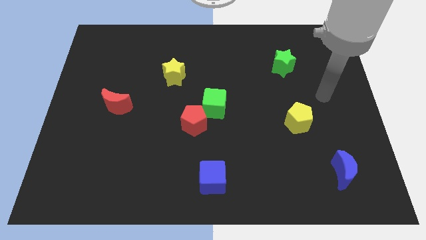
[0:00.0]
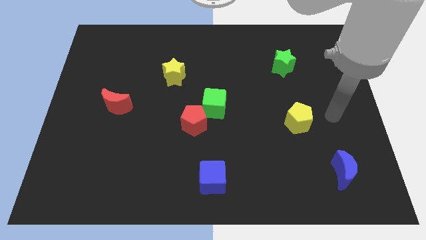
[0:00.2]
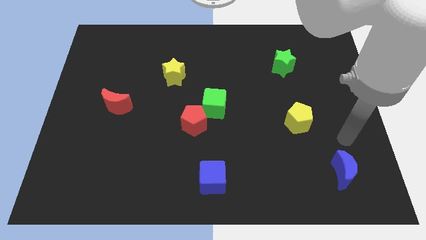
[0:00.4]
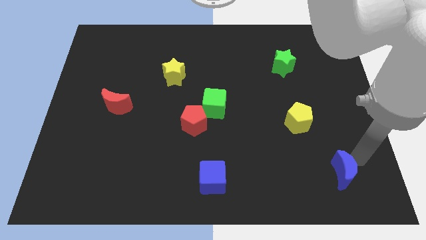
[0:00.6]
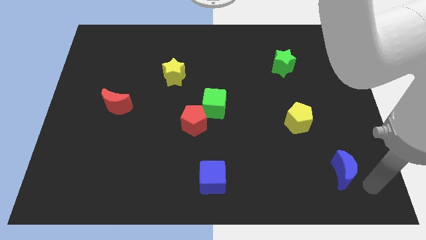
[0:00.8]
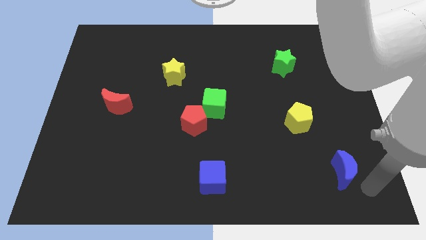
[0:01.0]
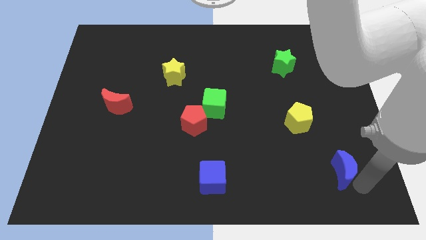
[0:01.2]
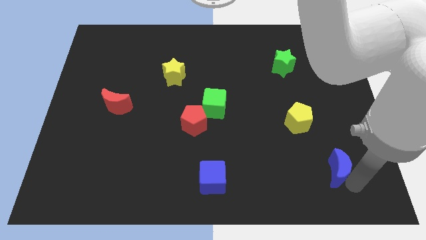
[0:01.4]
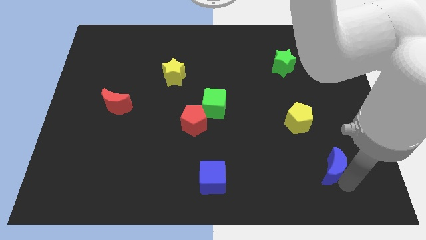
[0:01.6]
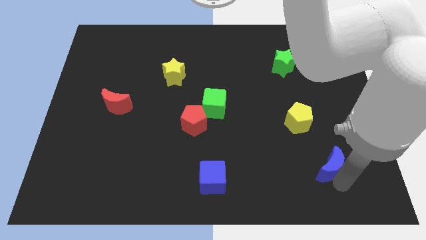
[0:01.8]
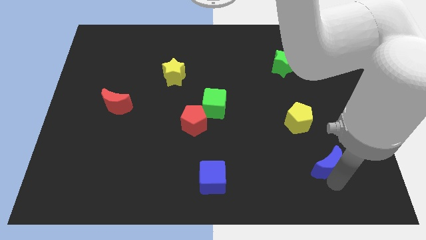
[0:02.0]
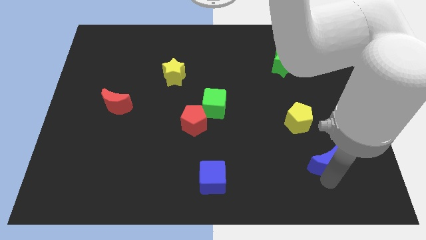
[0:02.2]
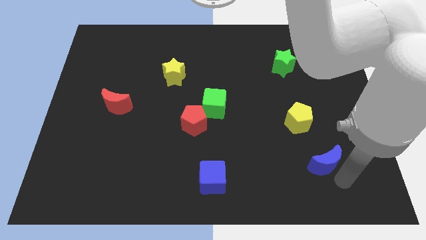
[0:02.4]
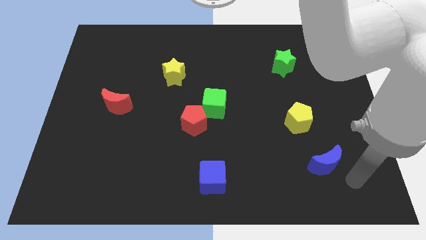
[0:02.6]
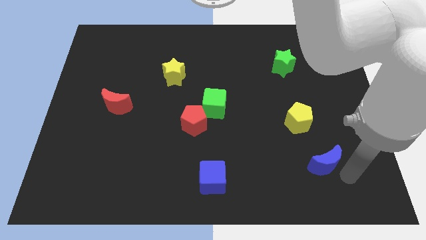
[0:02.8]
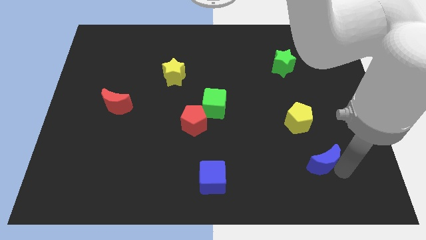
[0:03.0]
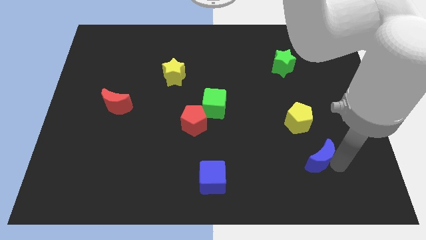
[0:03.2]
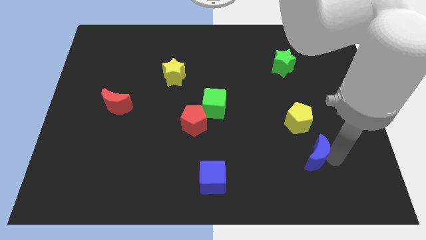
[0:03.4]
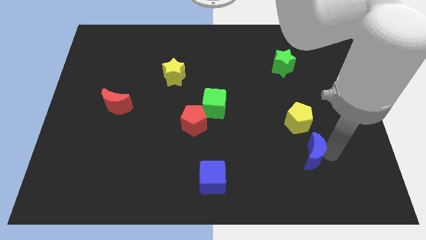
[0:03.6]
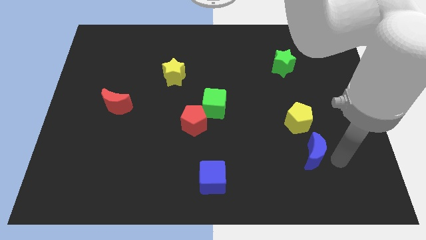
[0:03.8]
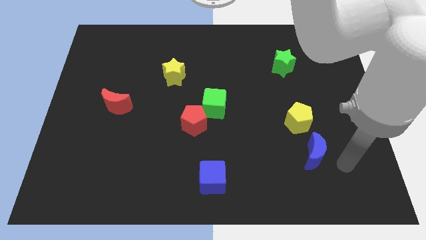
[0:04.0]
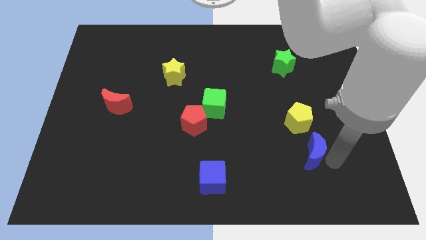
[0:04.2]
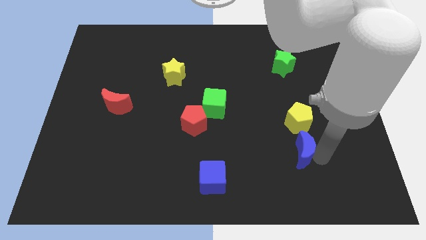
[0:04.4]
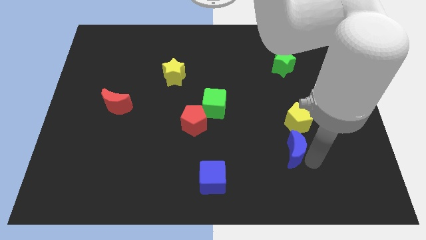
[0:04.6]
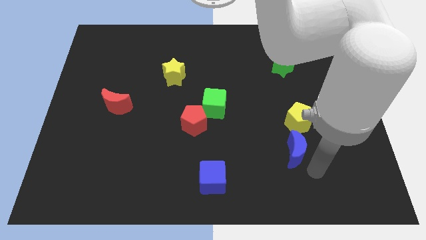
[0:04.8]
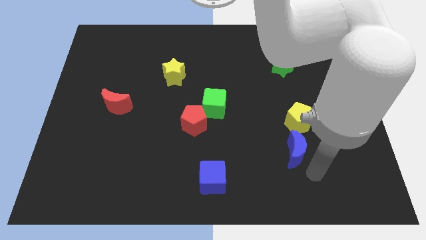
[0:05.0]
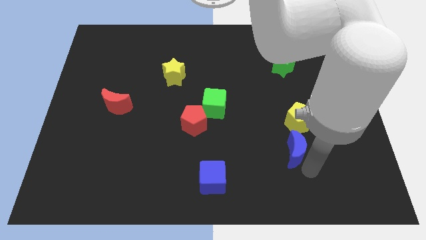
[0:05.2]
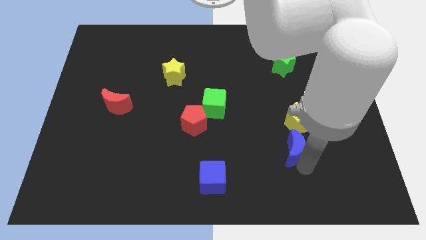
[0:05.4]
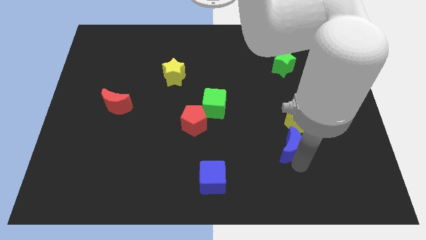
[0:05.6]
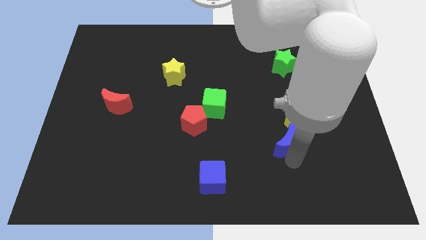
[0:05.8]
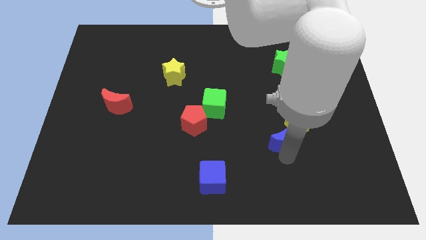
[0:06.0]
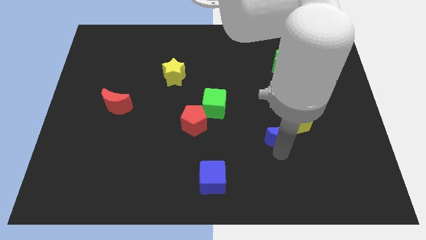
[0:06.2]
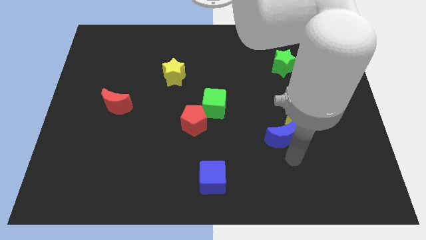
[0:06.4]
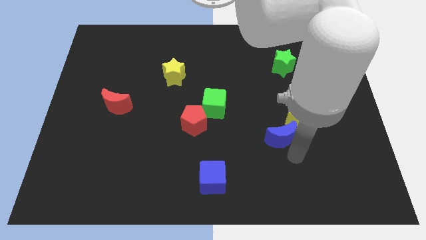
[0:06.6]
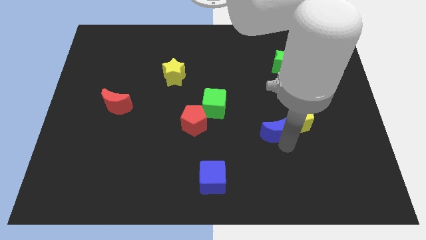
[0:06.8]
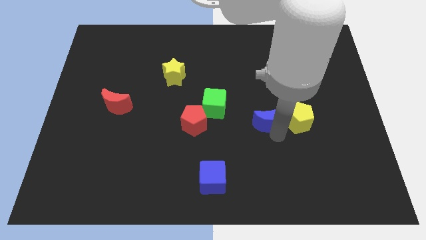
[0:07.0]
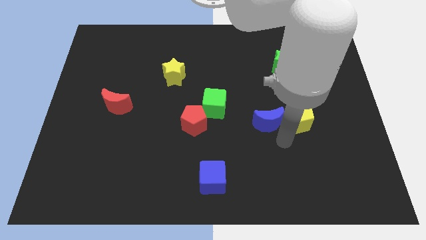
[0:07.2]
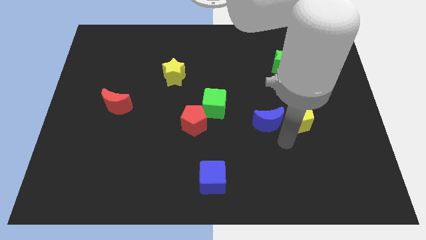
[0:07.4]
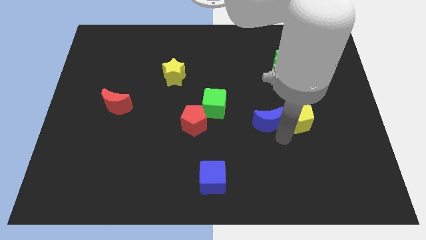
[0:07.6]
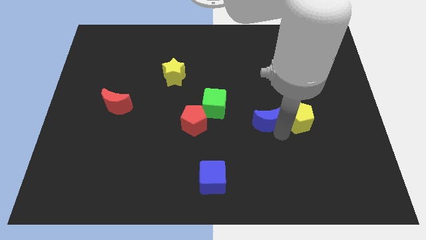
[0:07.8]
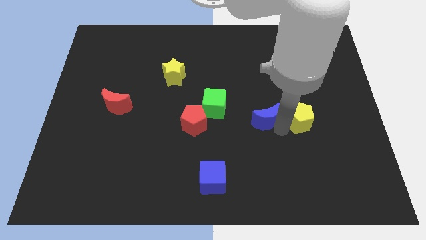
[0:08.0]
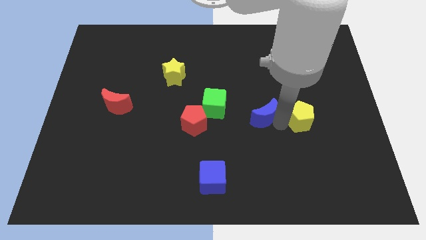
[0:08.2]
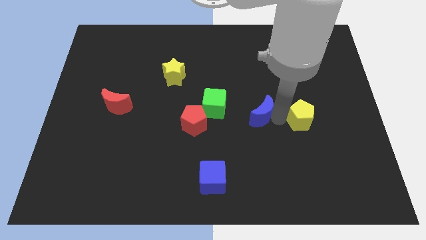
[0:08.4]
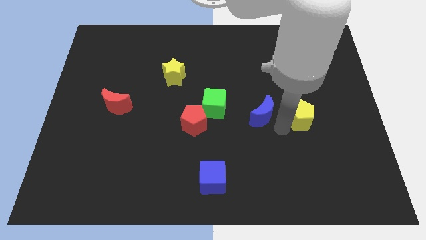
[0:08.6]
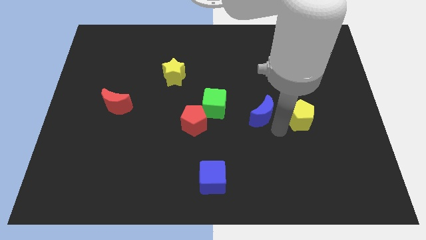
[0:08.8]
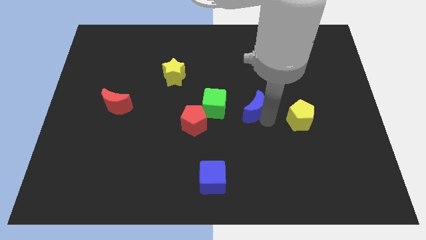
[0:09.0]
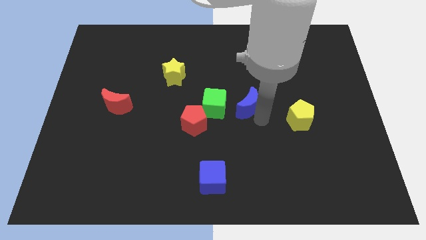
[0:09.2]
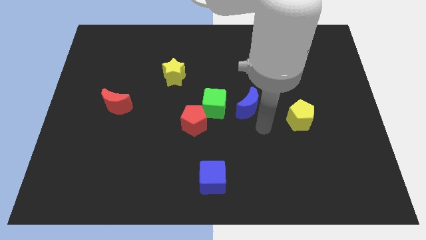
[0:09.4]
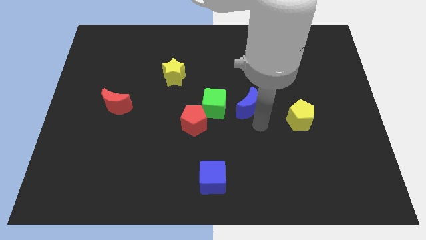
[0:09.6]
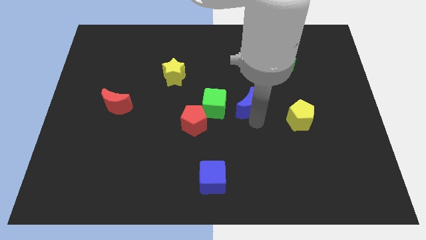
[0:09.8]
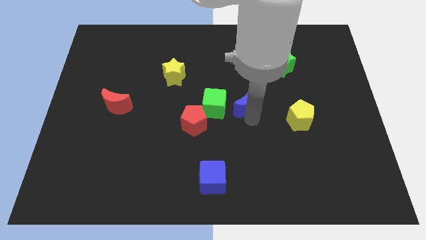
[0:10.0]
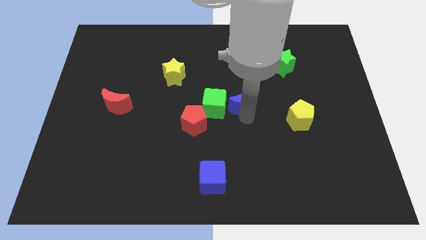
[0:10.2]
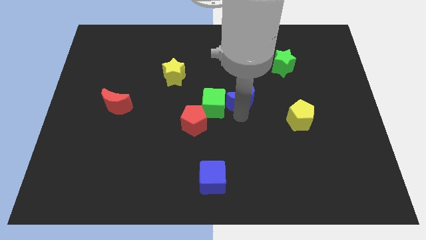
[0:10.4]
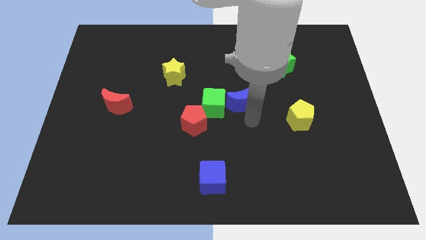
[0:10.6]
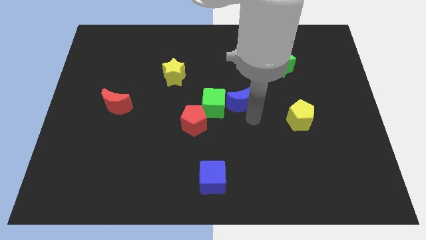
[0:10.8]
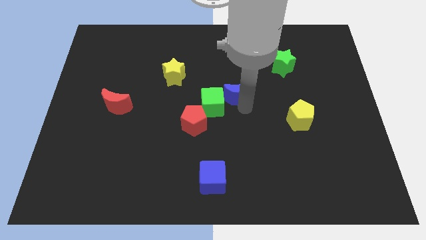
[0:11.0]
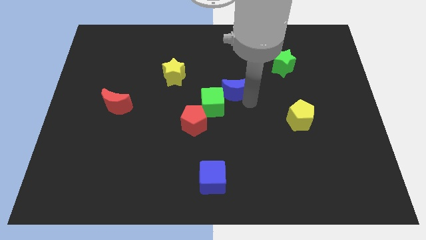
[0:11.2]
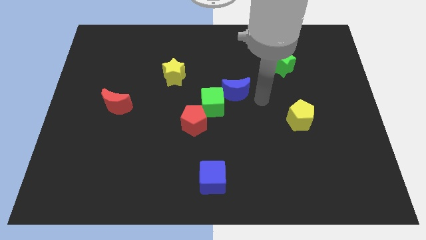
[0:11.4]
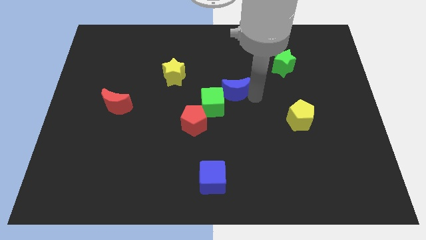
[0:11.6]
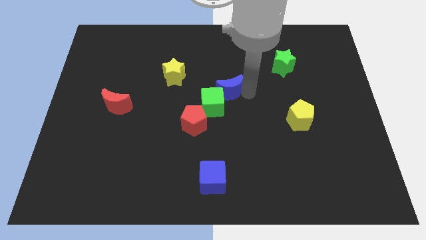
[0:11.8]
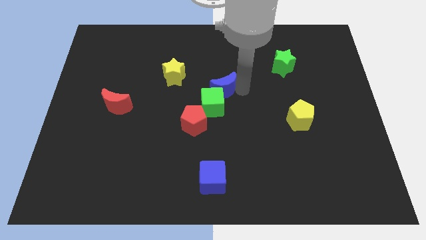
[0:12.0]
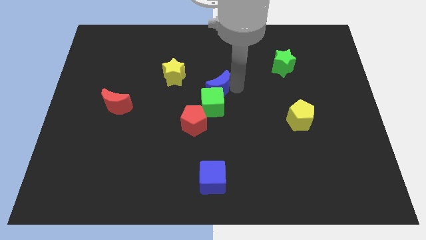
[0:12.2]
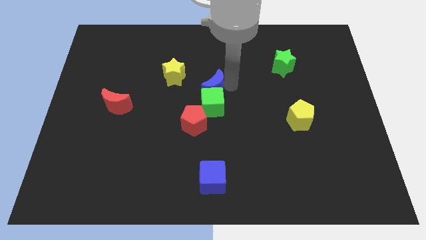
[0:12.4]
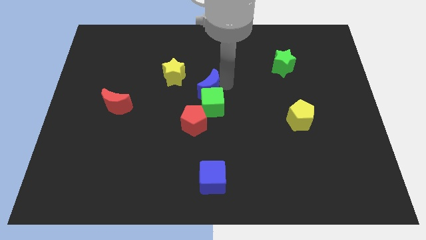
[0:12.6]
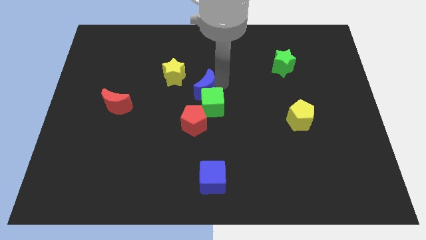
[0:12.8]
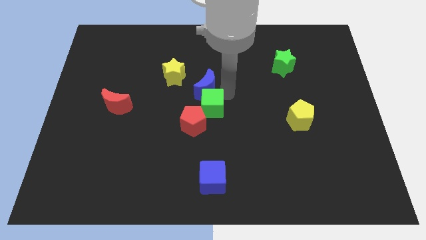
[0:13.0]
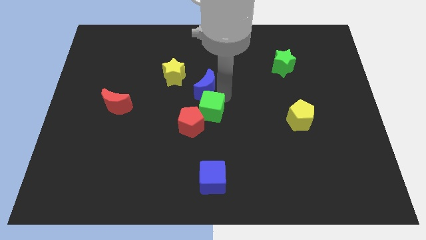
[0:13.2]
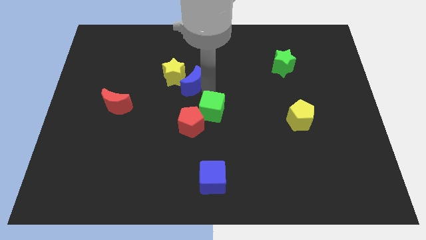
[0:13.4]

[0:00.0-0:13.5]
move the blue moon to the yellow star
